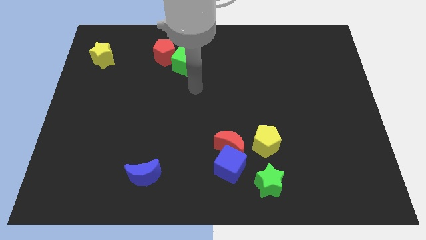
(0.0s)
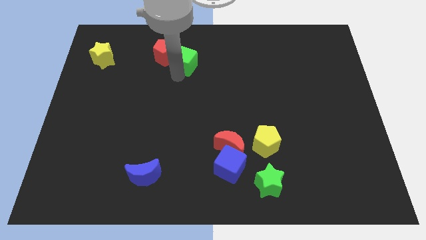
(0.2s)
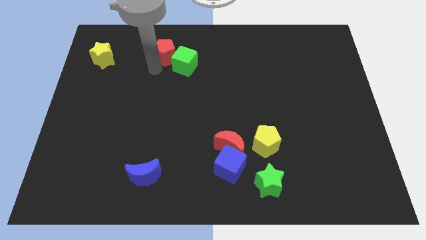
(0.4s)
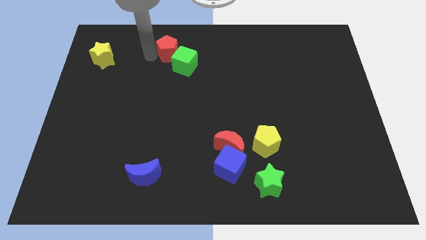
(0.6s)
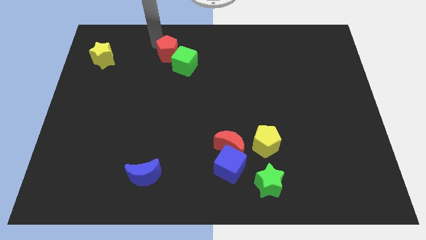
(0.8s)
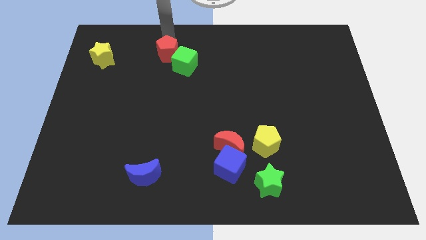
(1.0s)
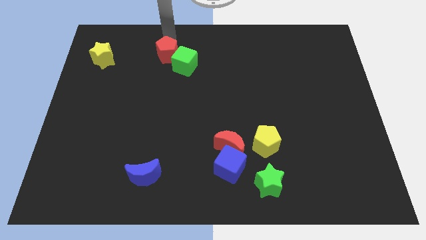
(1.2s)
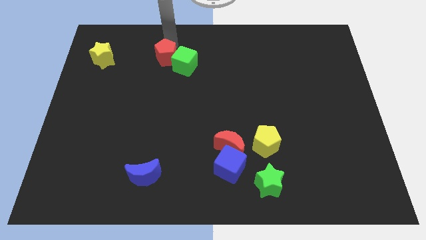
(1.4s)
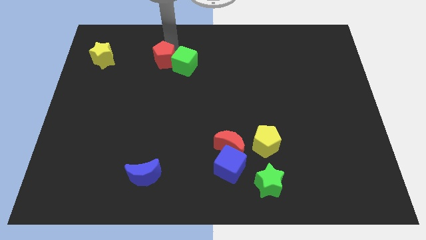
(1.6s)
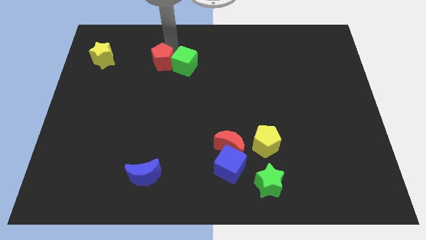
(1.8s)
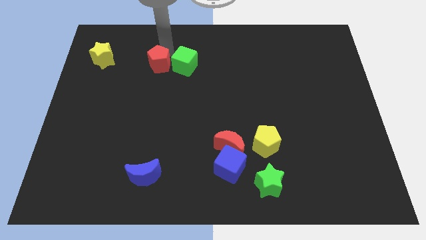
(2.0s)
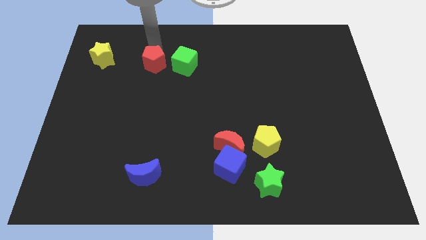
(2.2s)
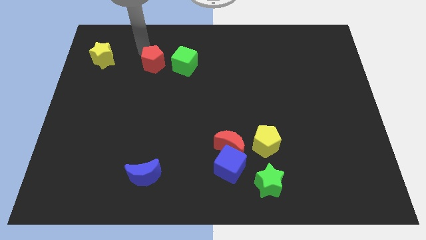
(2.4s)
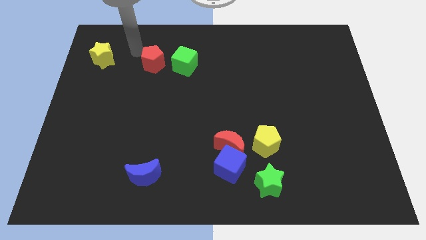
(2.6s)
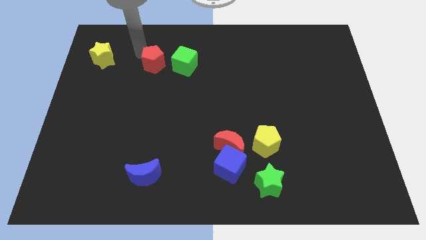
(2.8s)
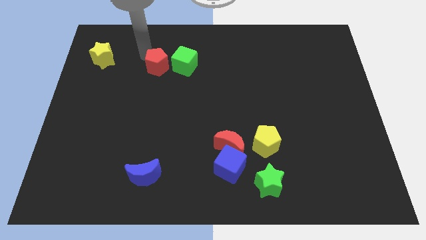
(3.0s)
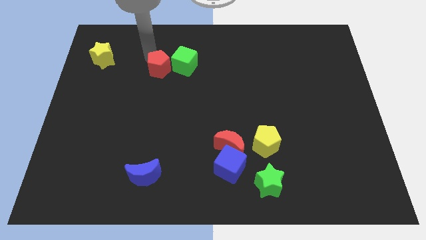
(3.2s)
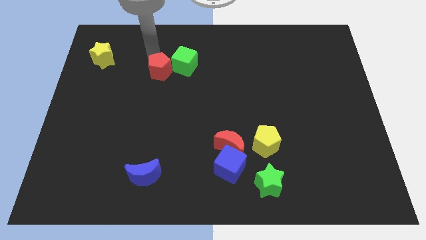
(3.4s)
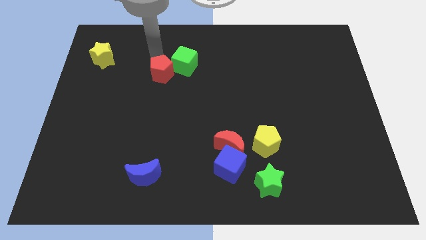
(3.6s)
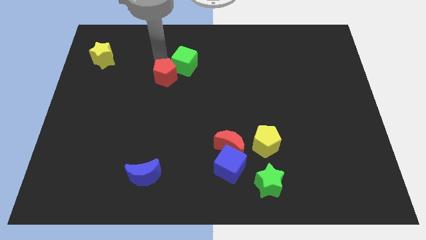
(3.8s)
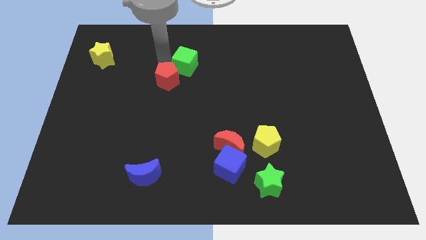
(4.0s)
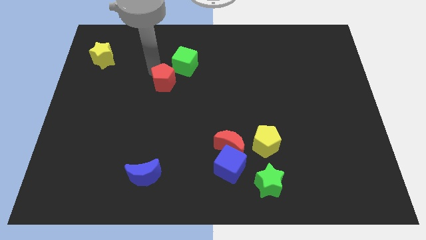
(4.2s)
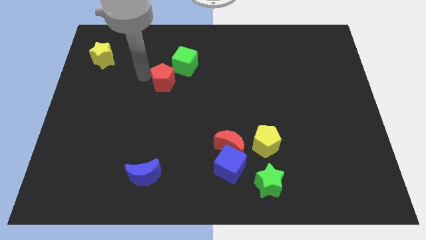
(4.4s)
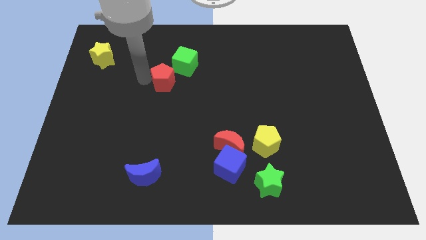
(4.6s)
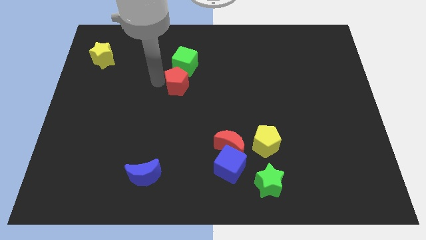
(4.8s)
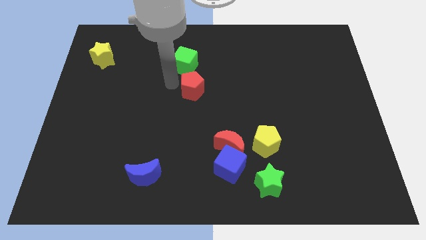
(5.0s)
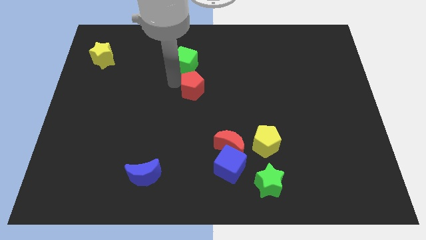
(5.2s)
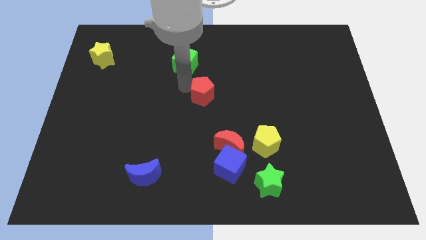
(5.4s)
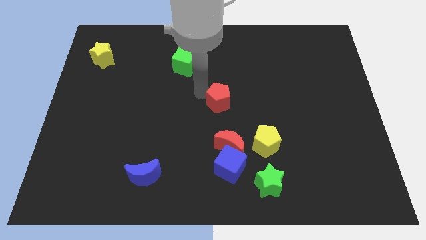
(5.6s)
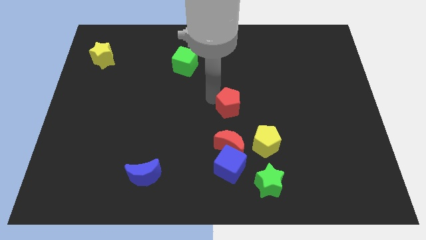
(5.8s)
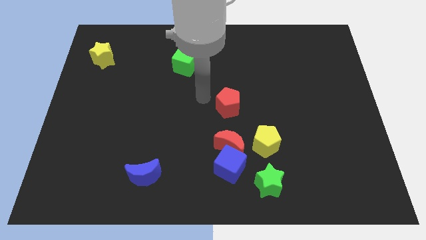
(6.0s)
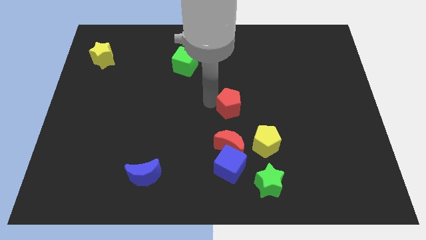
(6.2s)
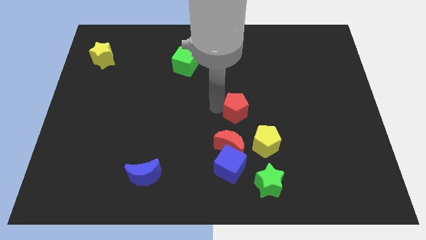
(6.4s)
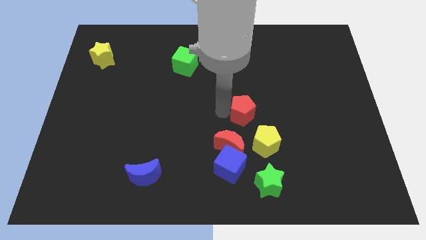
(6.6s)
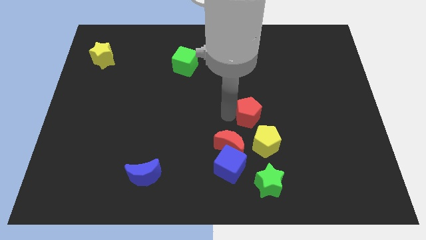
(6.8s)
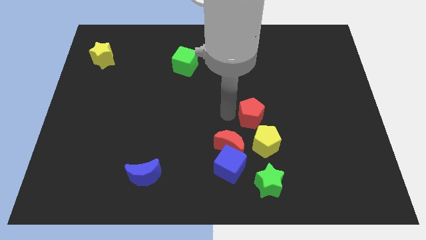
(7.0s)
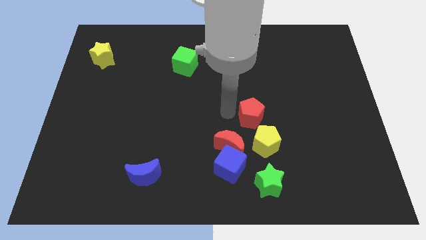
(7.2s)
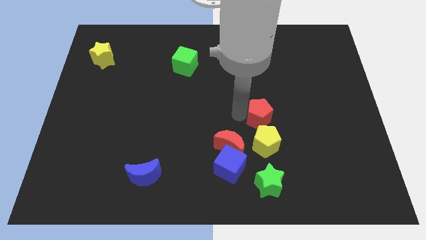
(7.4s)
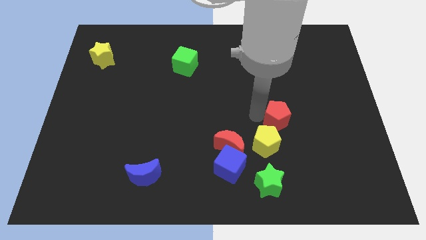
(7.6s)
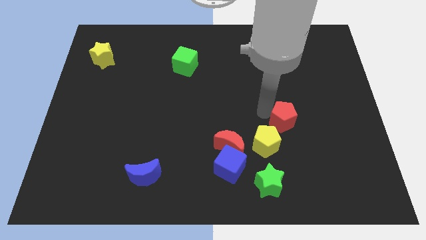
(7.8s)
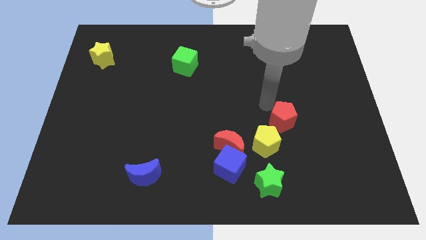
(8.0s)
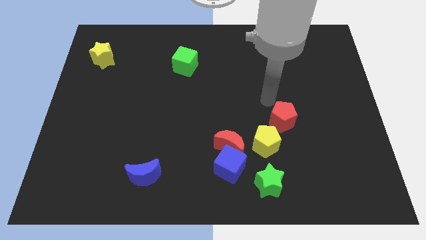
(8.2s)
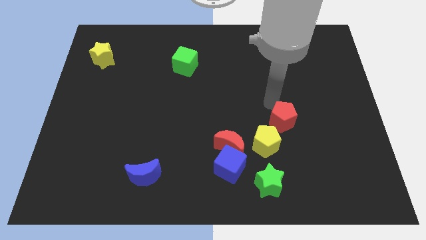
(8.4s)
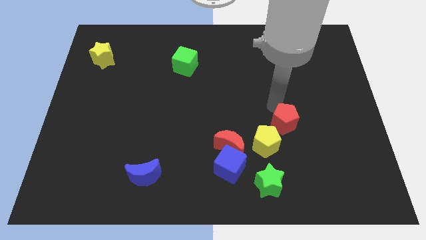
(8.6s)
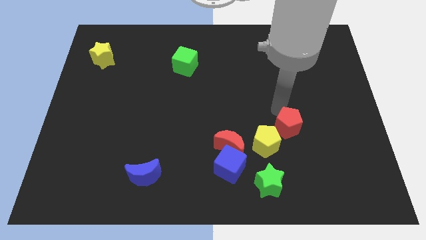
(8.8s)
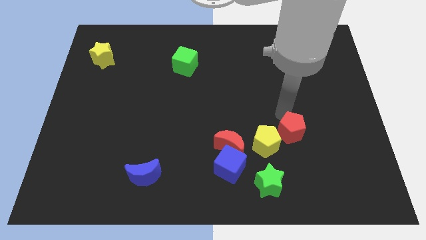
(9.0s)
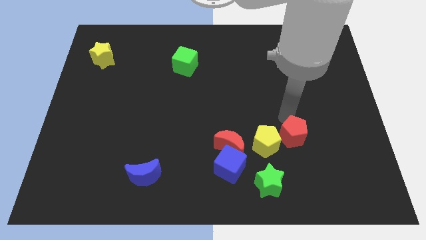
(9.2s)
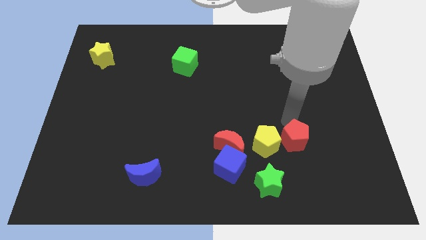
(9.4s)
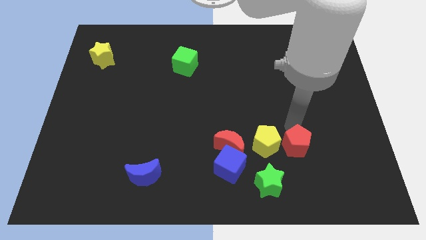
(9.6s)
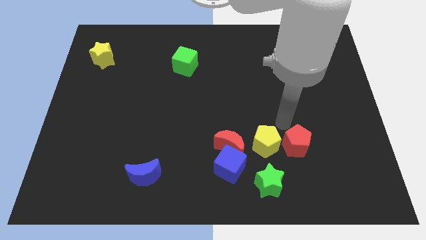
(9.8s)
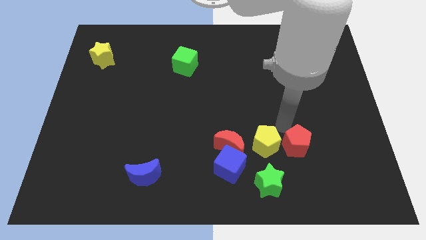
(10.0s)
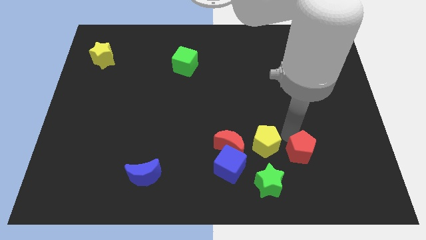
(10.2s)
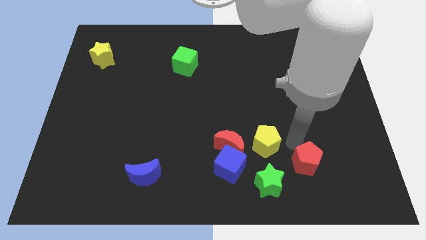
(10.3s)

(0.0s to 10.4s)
slide the red pentagon to the right of the green star

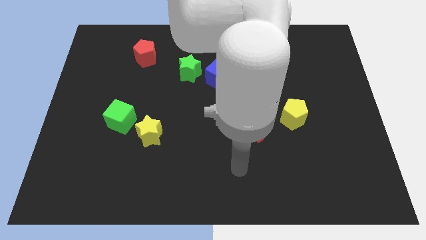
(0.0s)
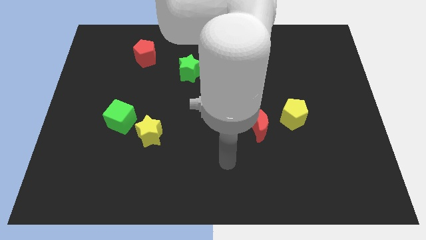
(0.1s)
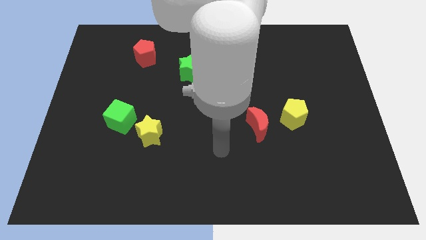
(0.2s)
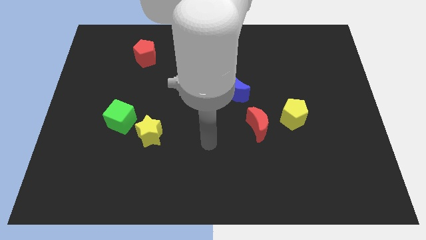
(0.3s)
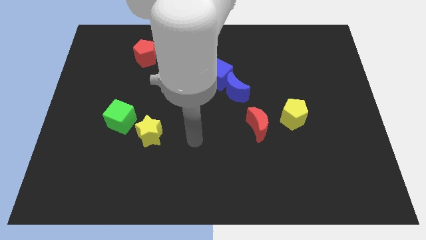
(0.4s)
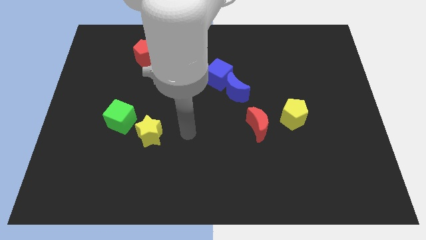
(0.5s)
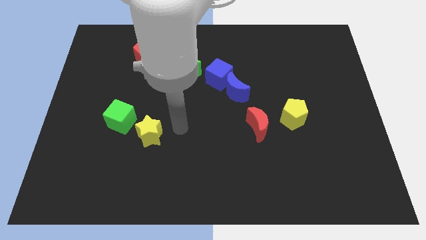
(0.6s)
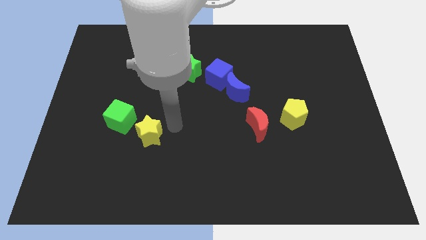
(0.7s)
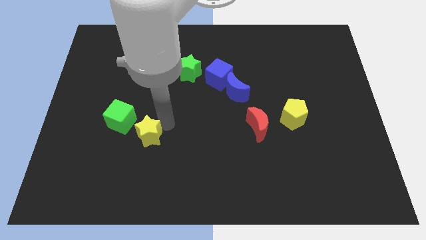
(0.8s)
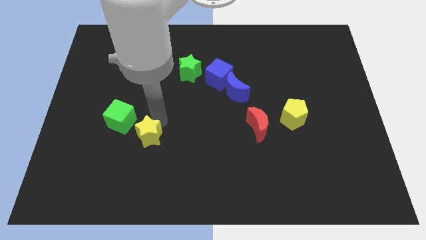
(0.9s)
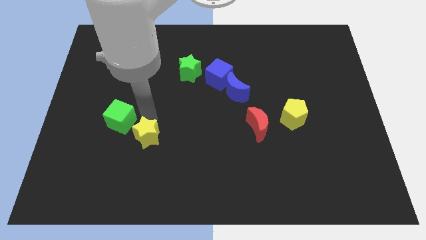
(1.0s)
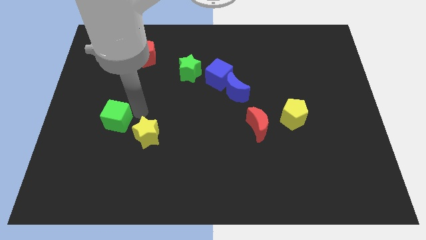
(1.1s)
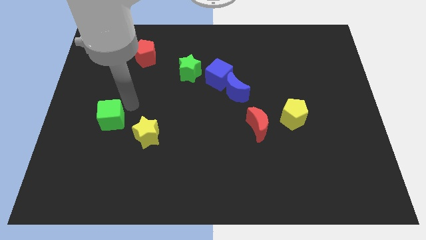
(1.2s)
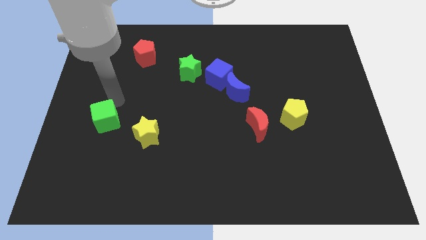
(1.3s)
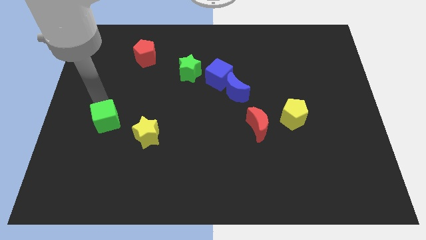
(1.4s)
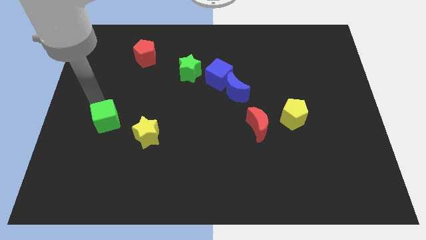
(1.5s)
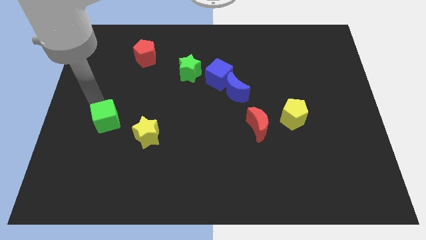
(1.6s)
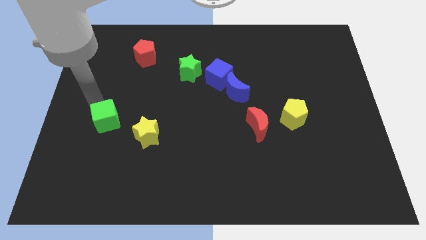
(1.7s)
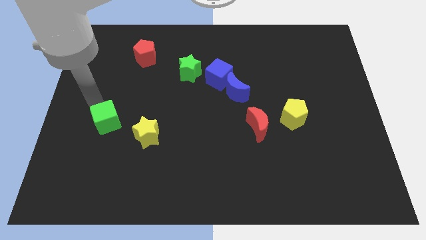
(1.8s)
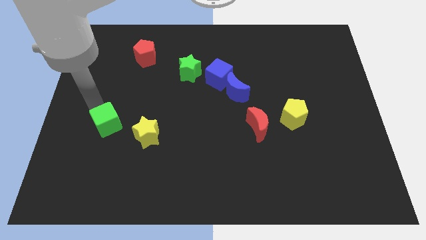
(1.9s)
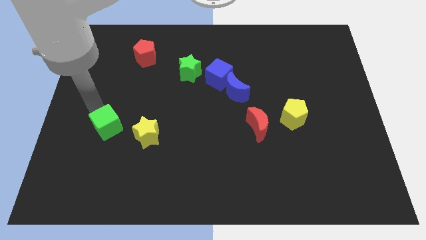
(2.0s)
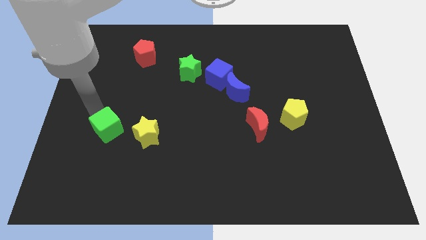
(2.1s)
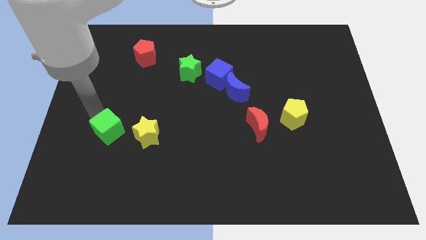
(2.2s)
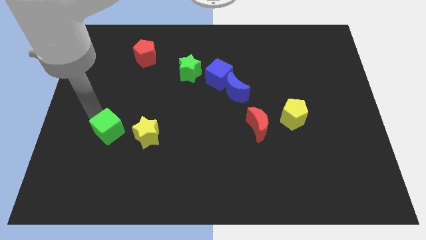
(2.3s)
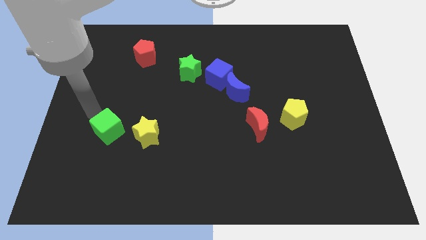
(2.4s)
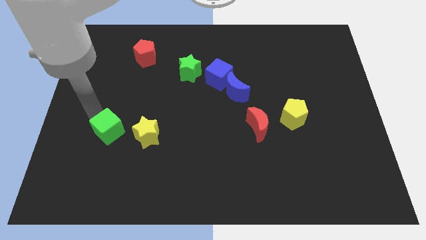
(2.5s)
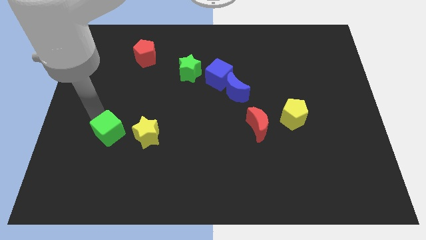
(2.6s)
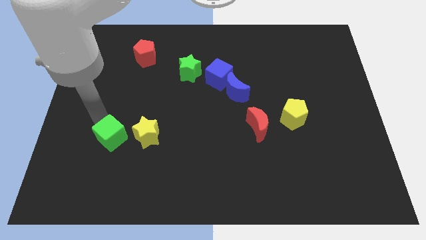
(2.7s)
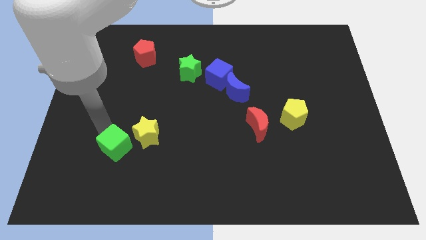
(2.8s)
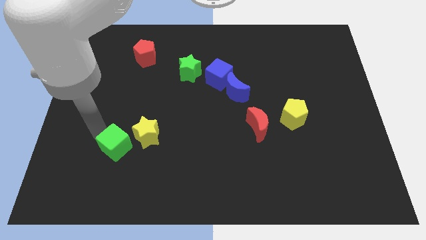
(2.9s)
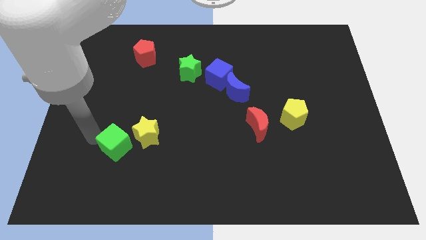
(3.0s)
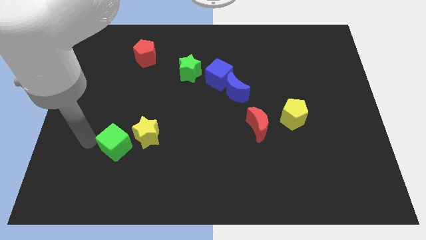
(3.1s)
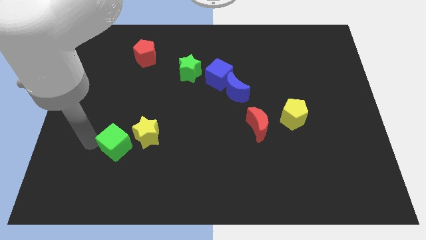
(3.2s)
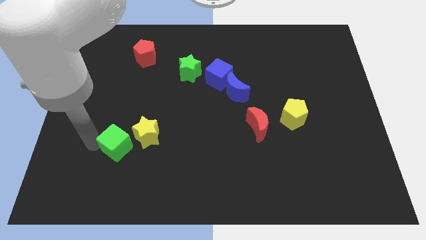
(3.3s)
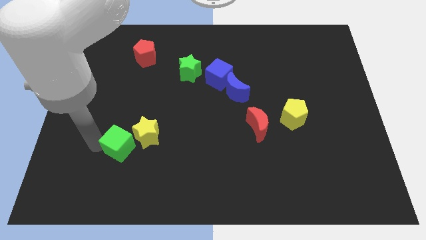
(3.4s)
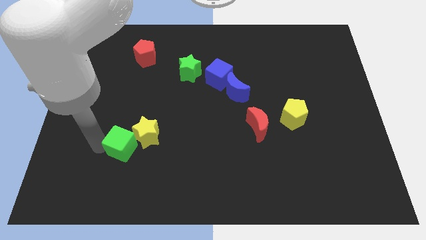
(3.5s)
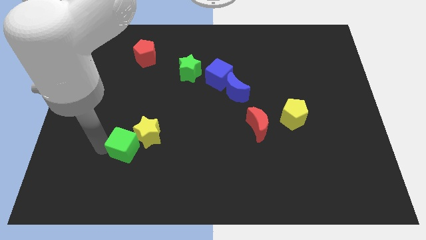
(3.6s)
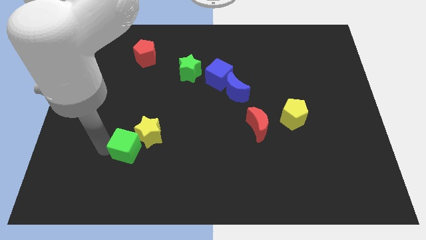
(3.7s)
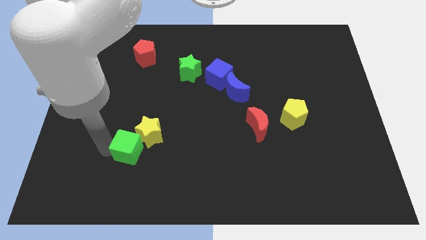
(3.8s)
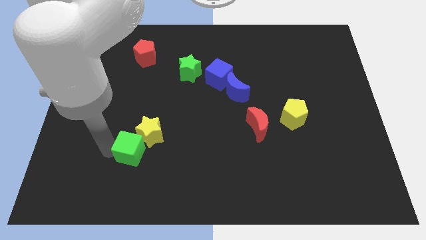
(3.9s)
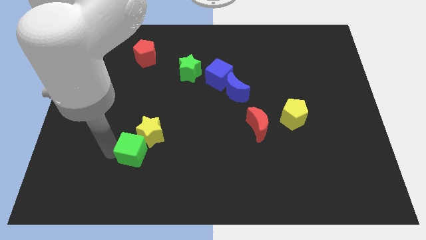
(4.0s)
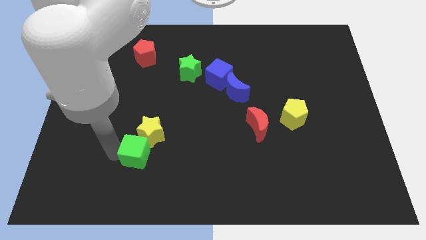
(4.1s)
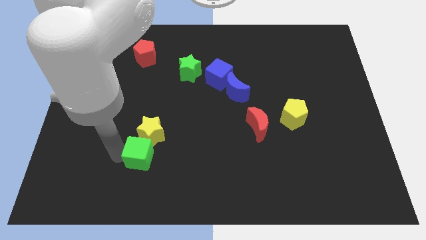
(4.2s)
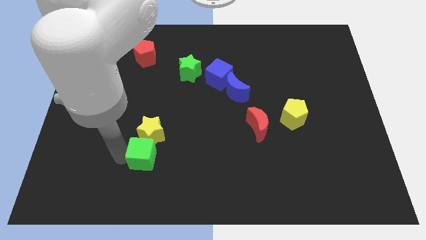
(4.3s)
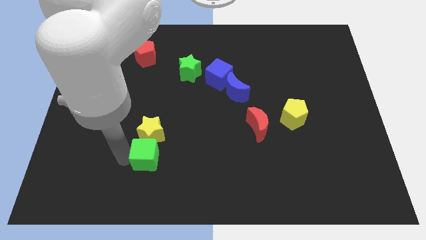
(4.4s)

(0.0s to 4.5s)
move the green cube to the bottom right of the yellow star
